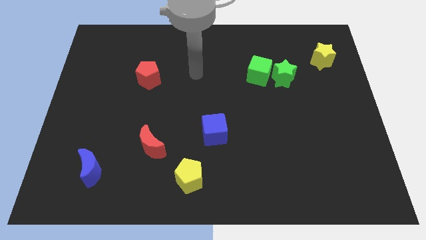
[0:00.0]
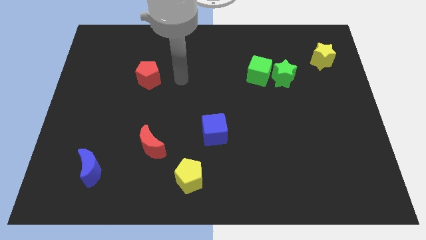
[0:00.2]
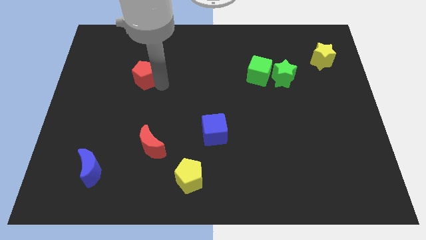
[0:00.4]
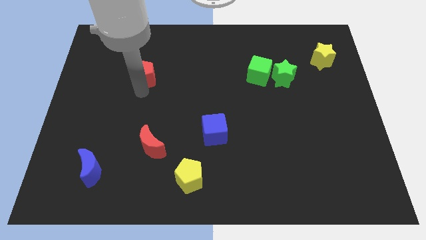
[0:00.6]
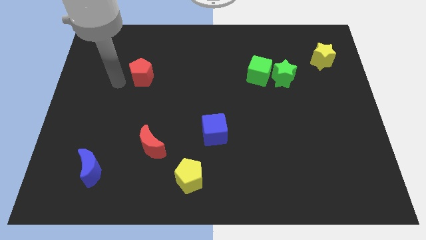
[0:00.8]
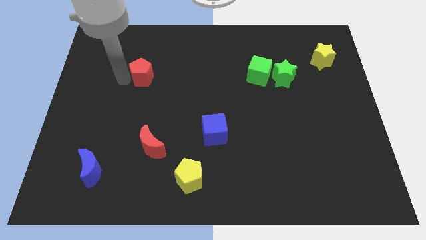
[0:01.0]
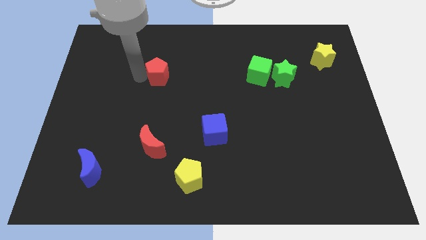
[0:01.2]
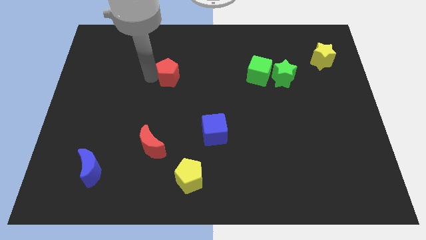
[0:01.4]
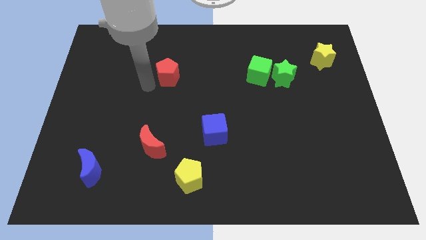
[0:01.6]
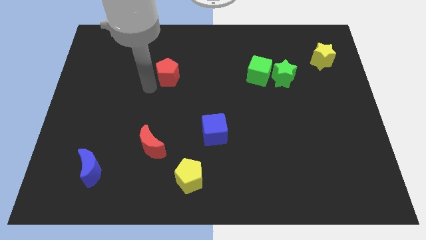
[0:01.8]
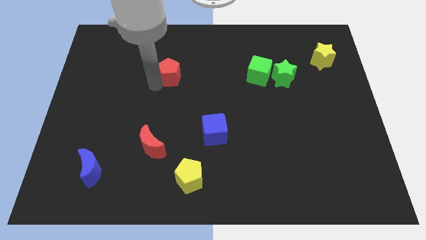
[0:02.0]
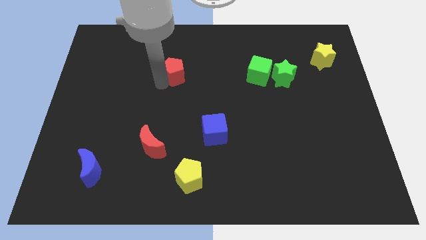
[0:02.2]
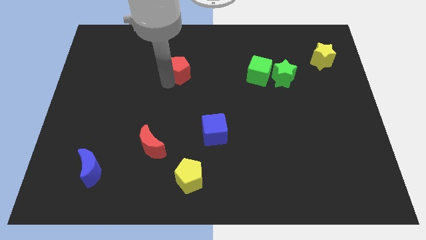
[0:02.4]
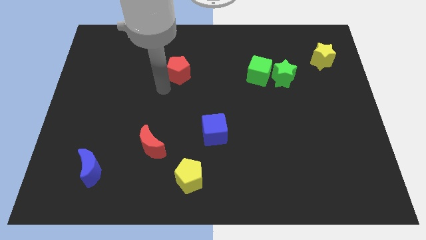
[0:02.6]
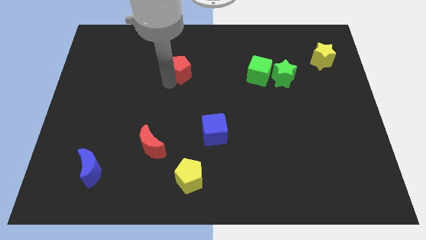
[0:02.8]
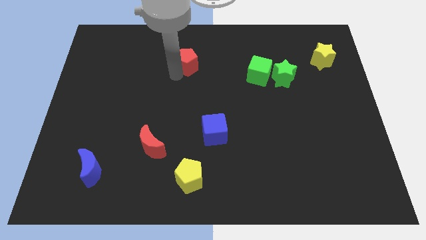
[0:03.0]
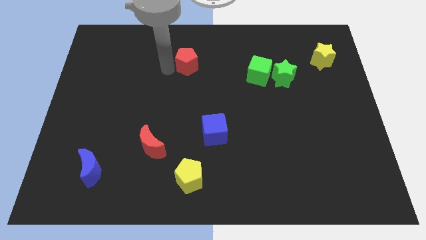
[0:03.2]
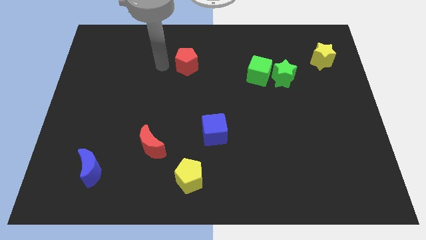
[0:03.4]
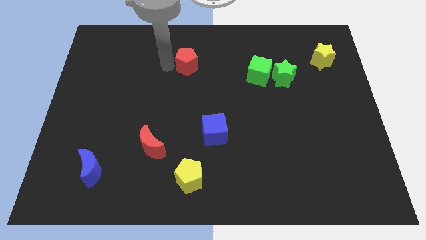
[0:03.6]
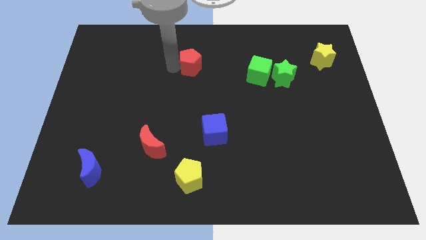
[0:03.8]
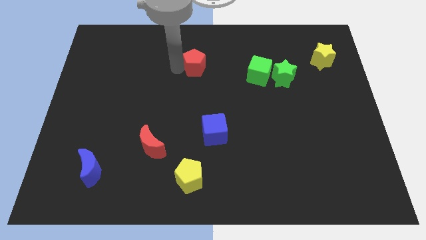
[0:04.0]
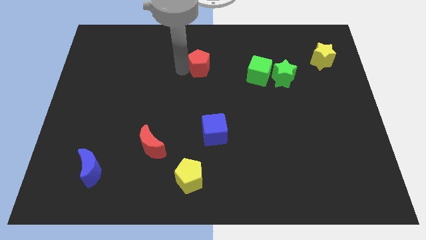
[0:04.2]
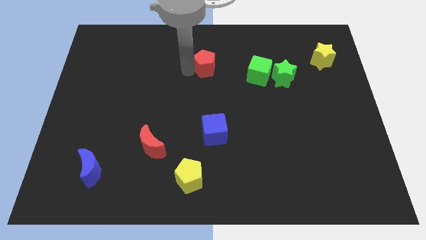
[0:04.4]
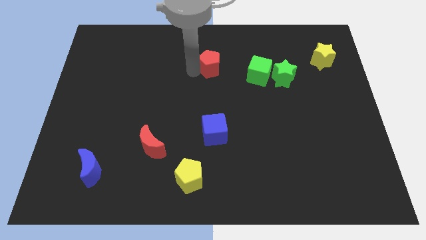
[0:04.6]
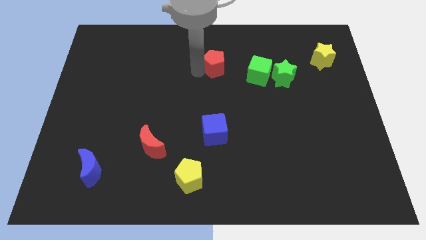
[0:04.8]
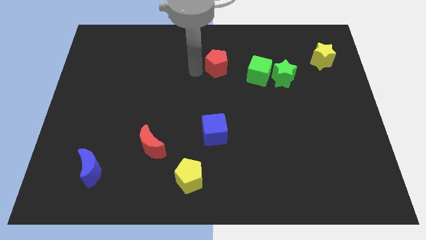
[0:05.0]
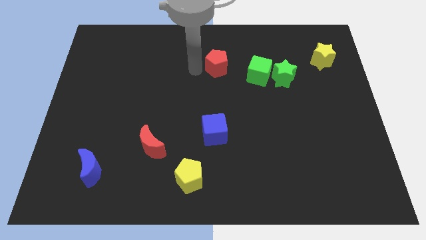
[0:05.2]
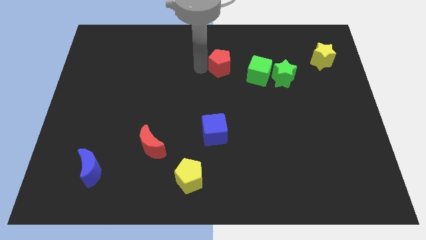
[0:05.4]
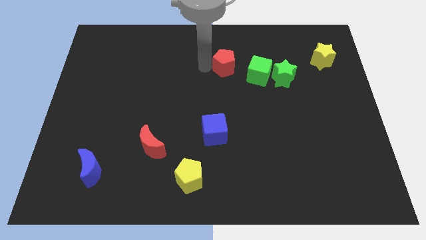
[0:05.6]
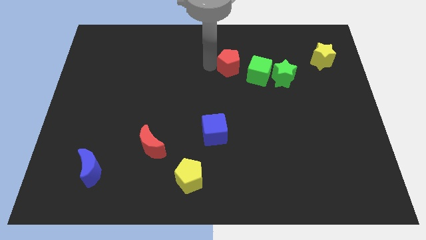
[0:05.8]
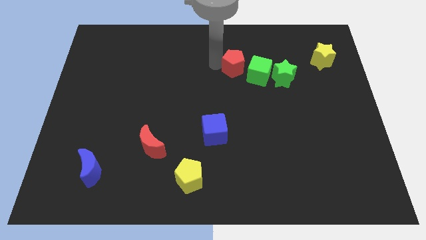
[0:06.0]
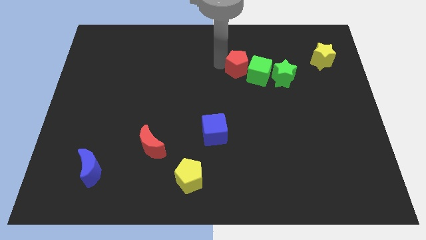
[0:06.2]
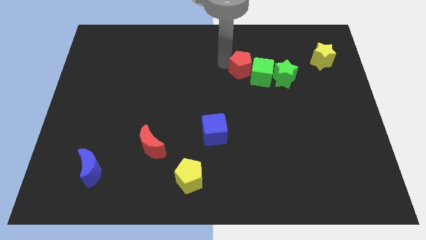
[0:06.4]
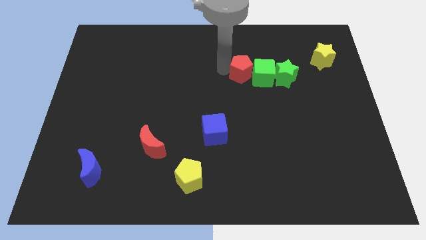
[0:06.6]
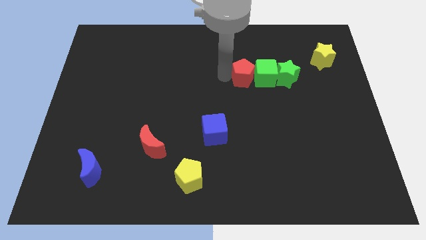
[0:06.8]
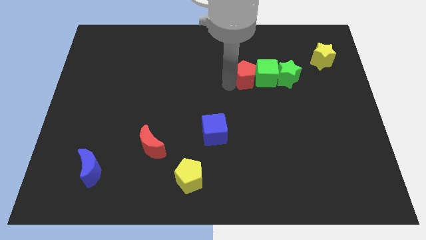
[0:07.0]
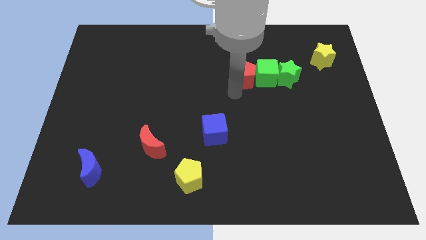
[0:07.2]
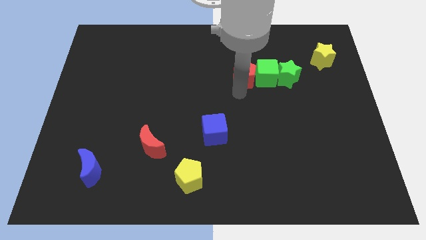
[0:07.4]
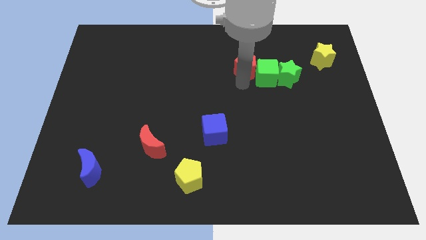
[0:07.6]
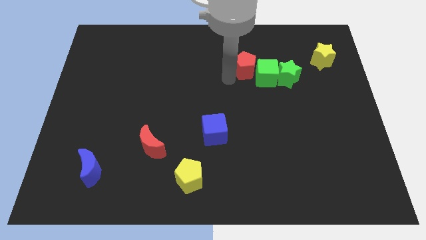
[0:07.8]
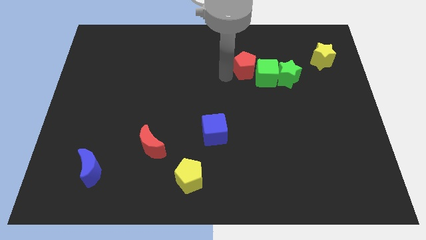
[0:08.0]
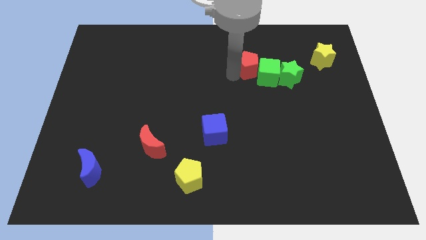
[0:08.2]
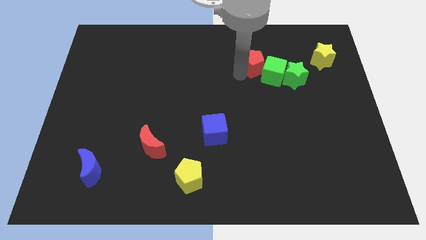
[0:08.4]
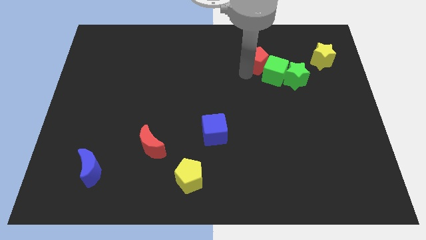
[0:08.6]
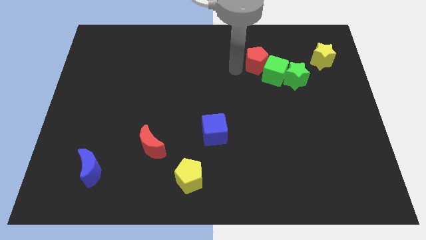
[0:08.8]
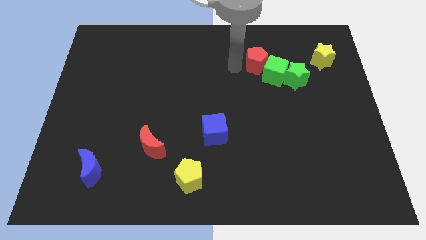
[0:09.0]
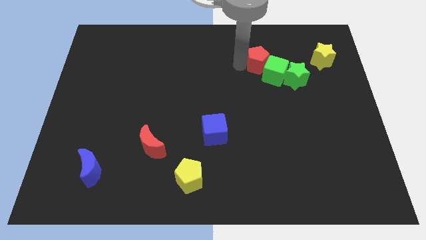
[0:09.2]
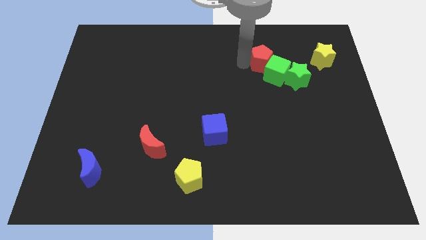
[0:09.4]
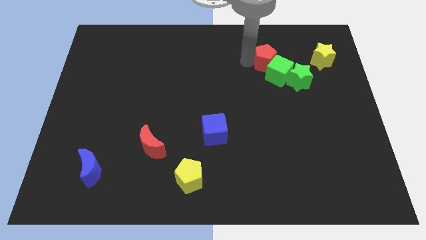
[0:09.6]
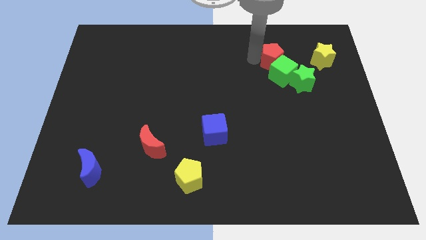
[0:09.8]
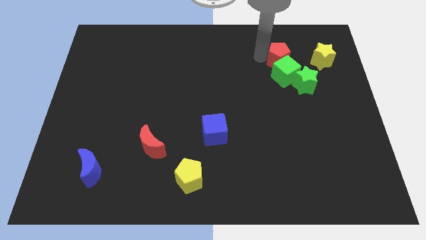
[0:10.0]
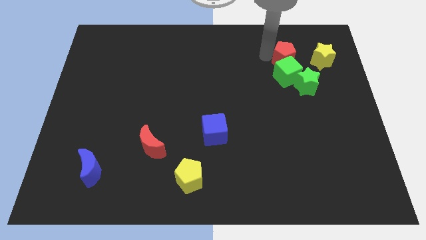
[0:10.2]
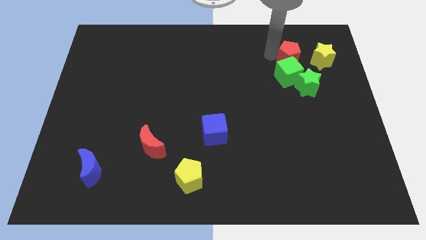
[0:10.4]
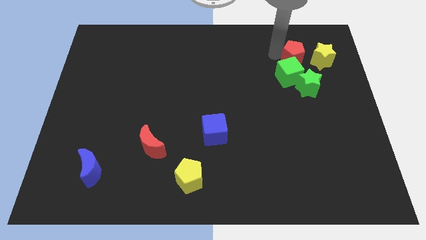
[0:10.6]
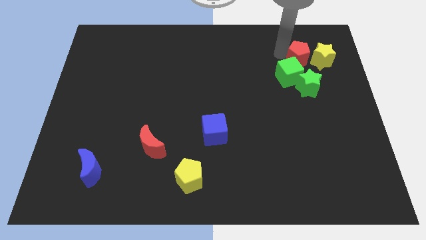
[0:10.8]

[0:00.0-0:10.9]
push the red pentagon towards the yellow star

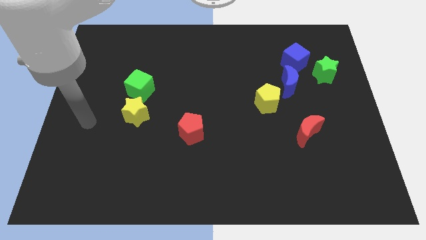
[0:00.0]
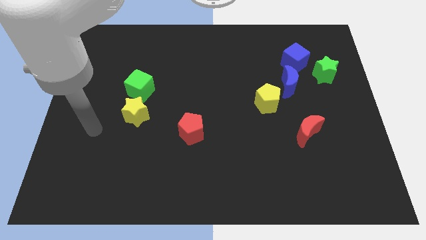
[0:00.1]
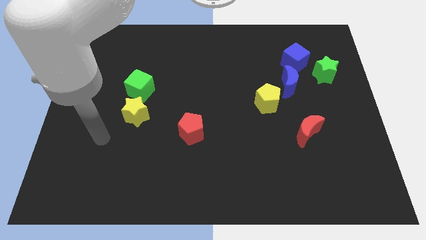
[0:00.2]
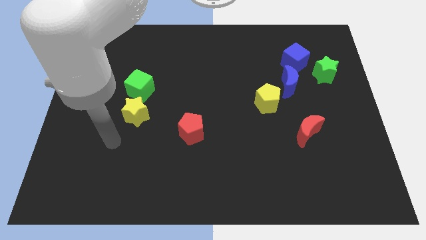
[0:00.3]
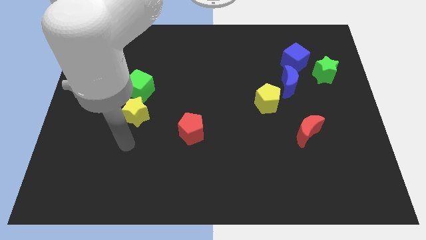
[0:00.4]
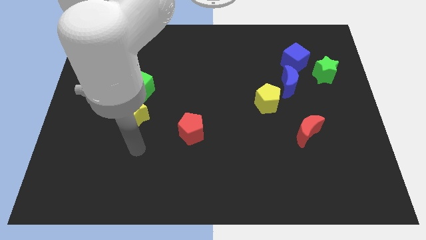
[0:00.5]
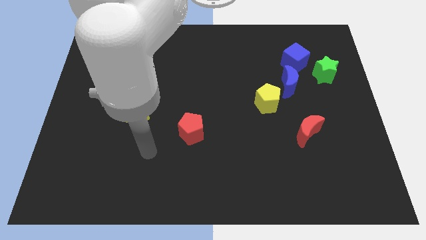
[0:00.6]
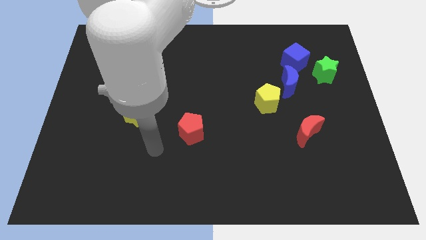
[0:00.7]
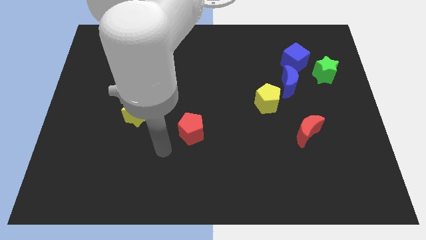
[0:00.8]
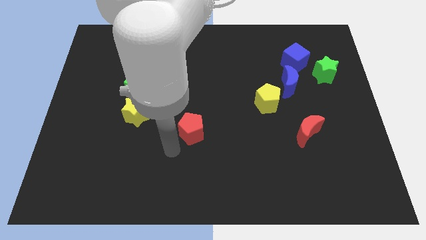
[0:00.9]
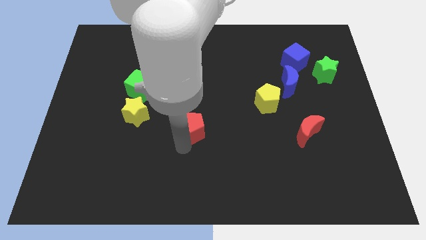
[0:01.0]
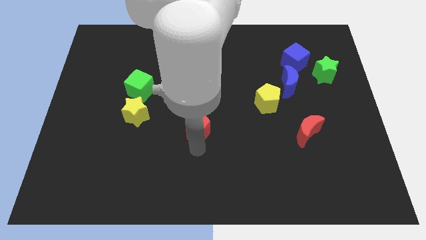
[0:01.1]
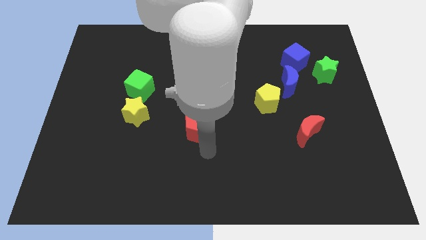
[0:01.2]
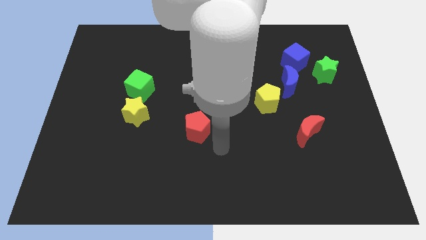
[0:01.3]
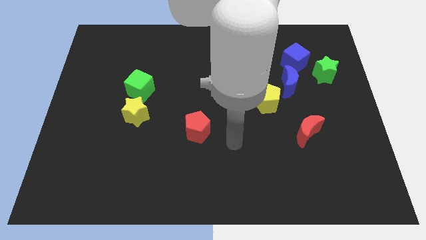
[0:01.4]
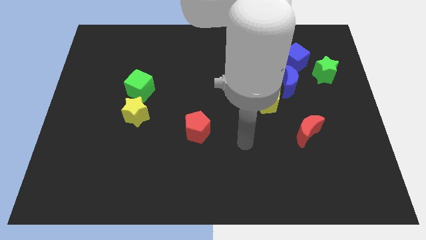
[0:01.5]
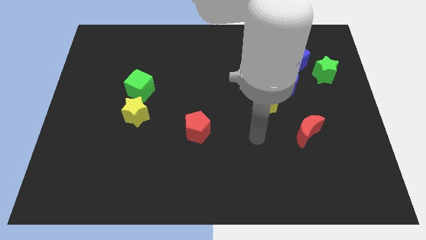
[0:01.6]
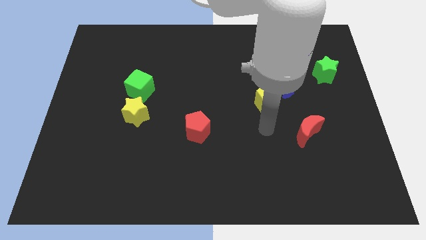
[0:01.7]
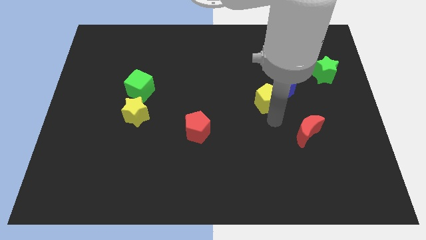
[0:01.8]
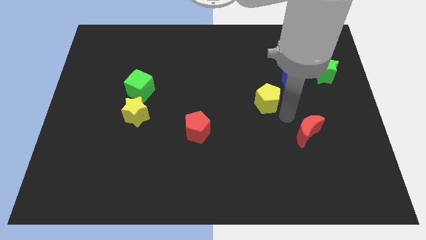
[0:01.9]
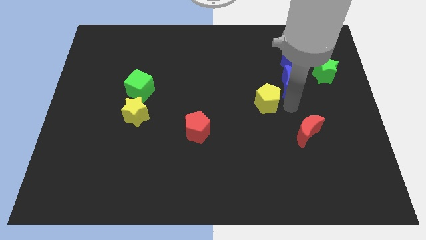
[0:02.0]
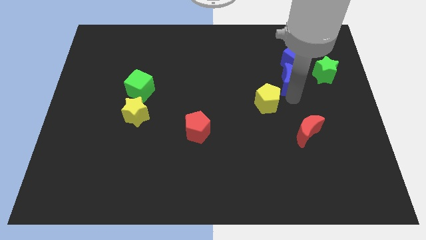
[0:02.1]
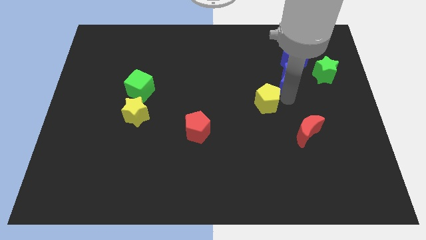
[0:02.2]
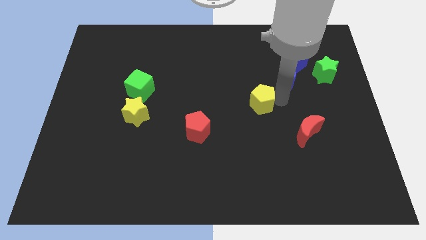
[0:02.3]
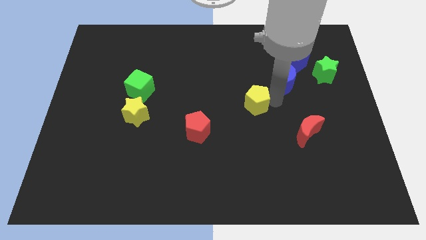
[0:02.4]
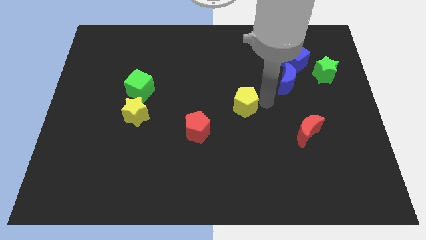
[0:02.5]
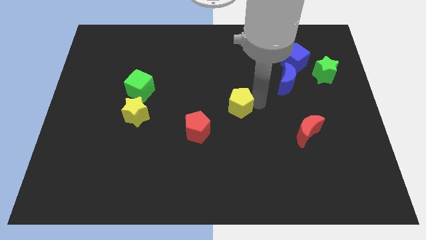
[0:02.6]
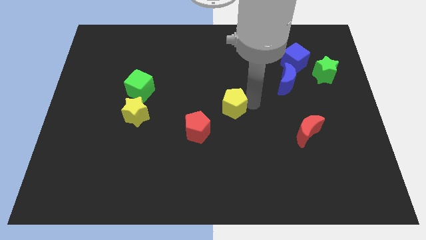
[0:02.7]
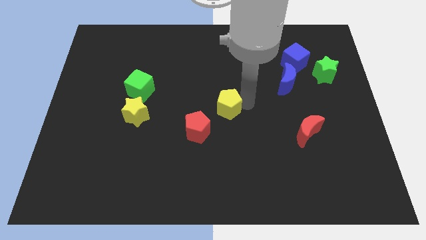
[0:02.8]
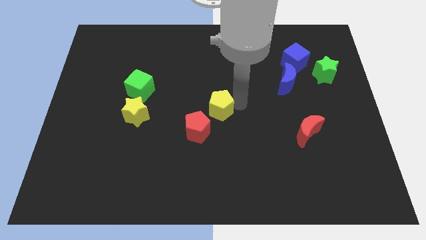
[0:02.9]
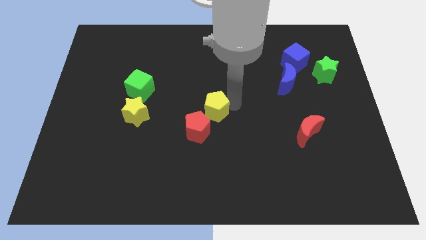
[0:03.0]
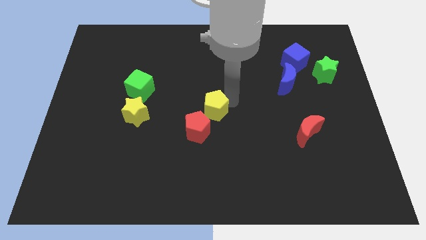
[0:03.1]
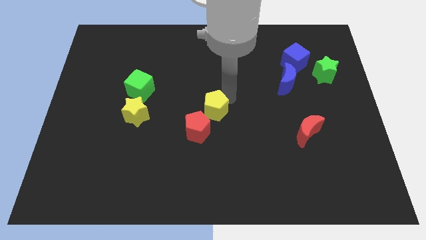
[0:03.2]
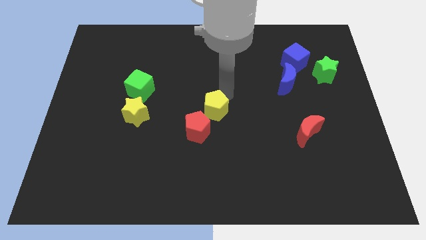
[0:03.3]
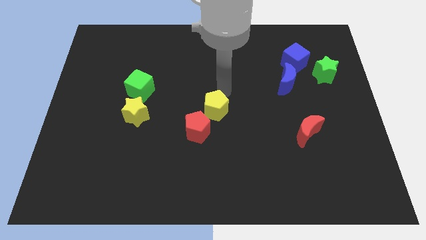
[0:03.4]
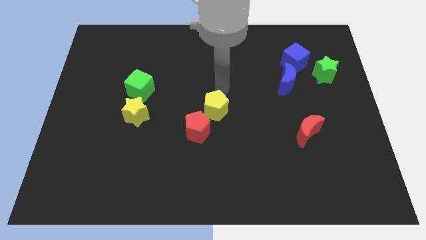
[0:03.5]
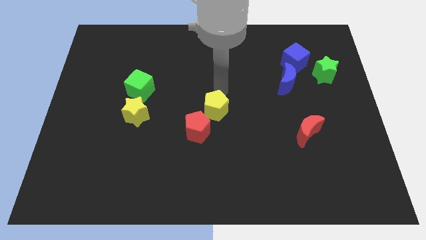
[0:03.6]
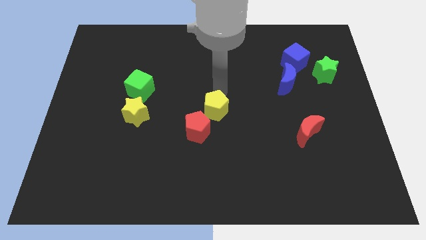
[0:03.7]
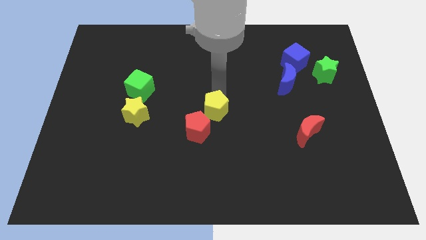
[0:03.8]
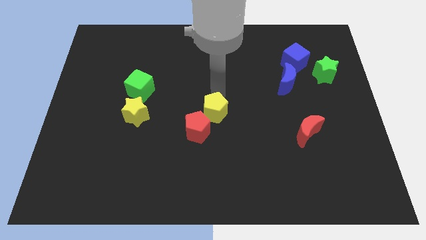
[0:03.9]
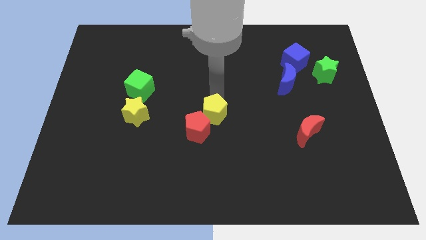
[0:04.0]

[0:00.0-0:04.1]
move the yellow pentagon next to the red pentagon
